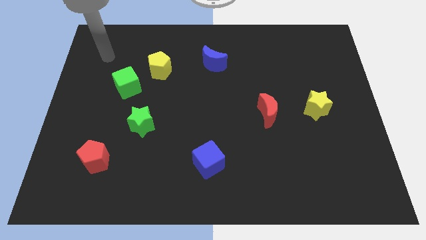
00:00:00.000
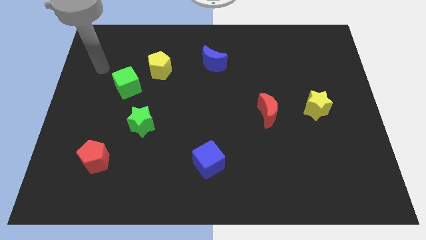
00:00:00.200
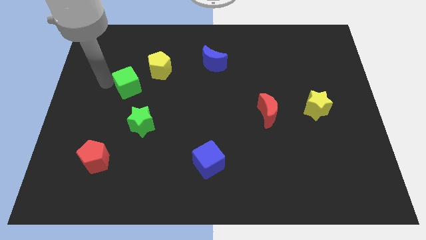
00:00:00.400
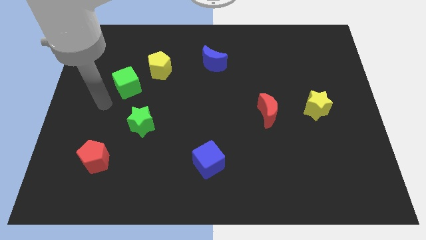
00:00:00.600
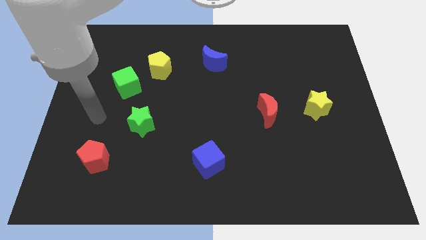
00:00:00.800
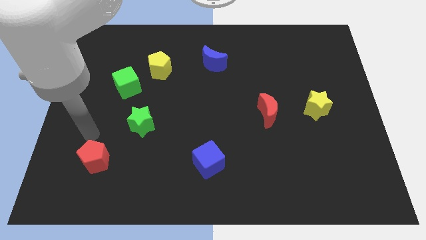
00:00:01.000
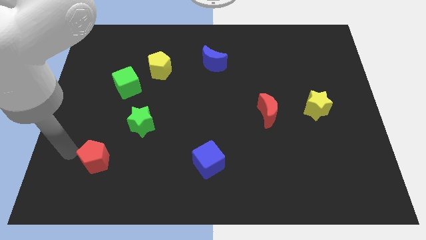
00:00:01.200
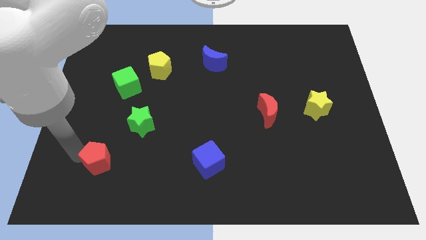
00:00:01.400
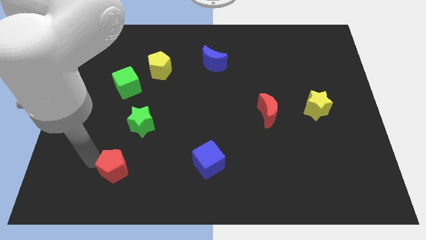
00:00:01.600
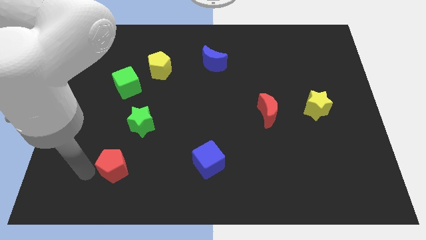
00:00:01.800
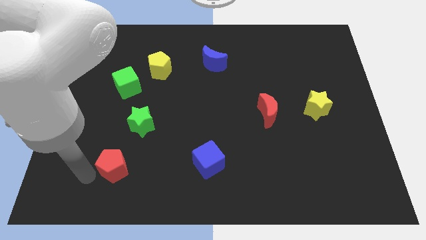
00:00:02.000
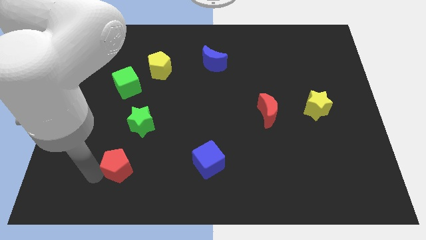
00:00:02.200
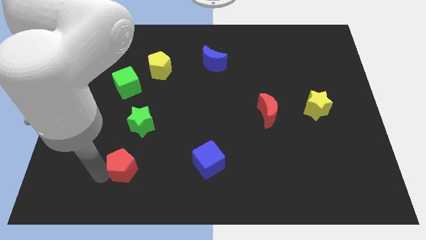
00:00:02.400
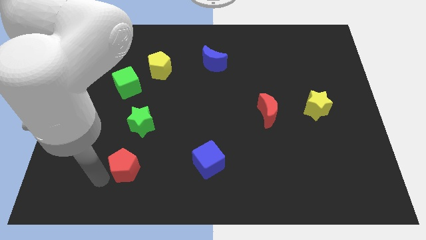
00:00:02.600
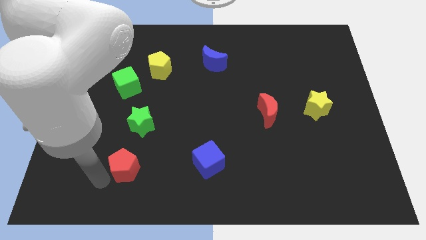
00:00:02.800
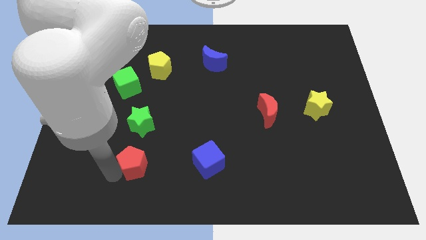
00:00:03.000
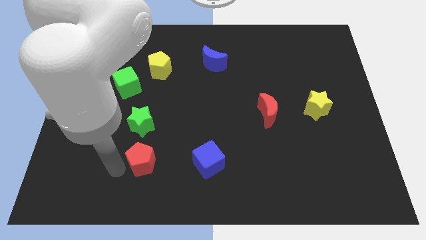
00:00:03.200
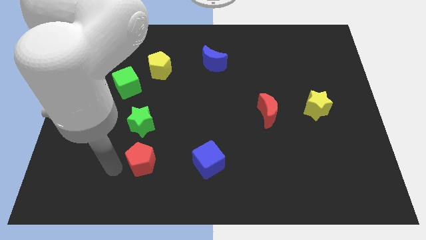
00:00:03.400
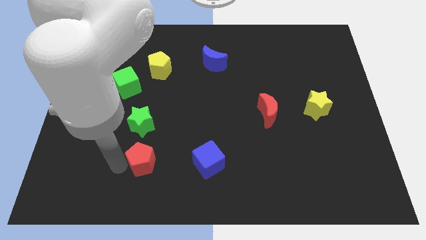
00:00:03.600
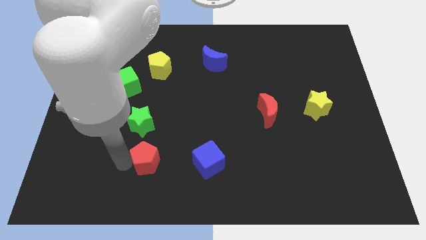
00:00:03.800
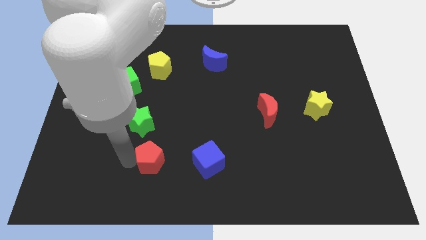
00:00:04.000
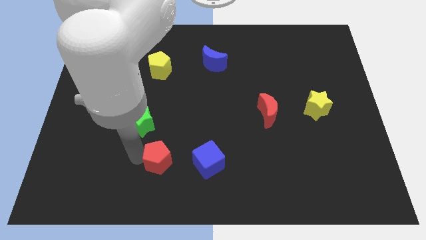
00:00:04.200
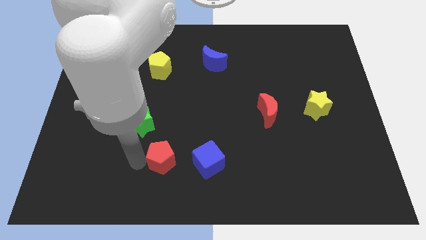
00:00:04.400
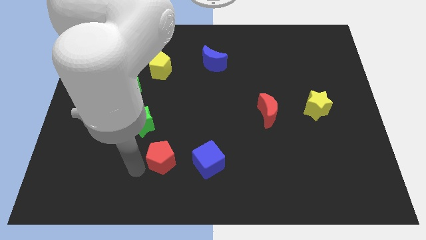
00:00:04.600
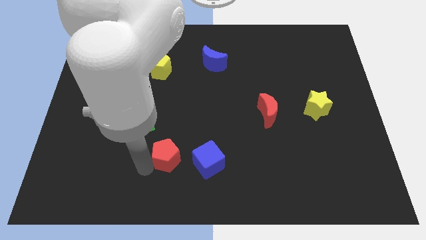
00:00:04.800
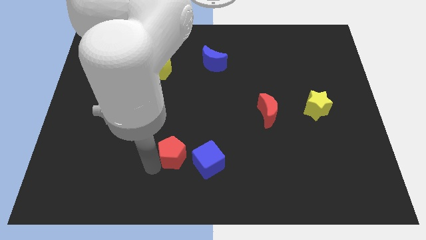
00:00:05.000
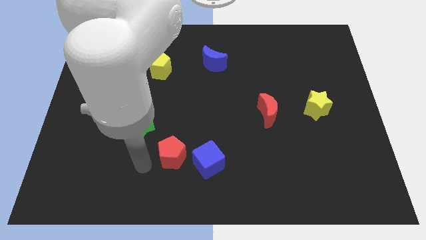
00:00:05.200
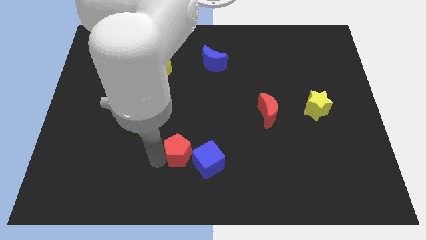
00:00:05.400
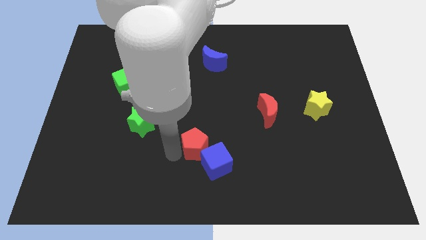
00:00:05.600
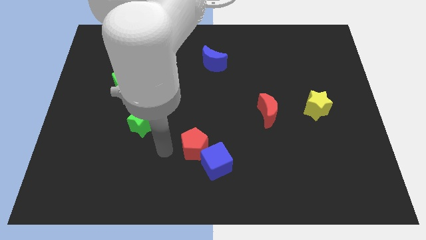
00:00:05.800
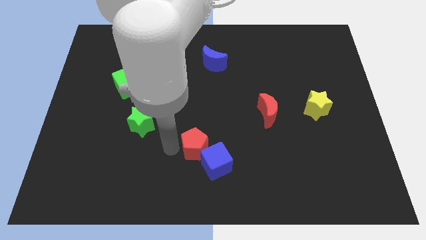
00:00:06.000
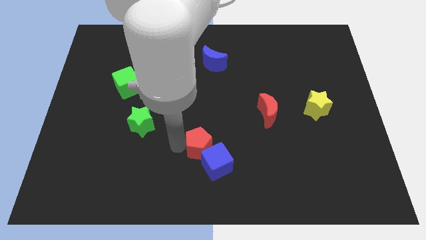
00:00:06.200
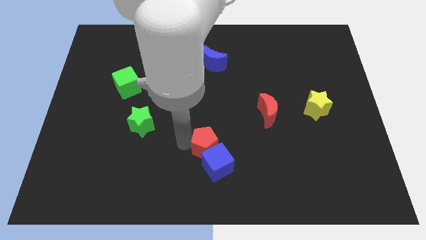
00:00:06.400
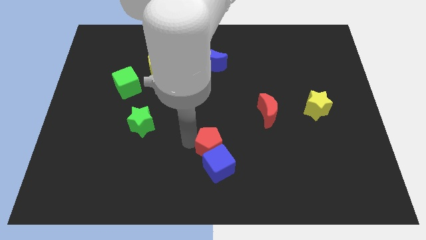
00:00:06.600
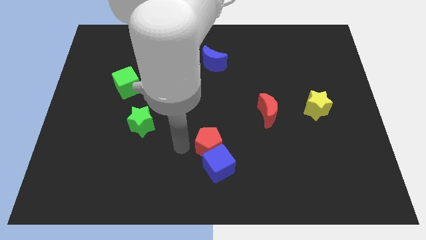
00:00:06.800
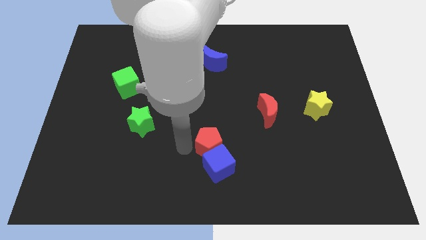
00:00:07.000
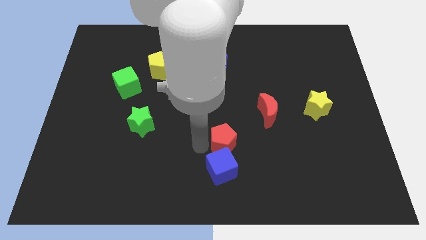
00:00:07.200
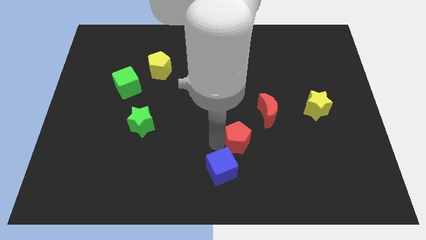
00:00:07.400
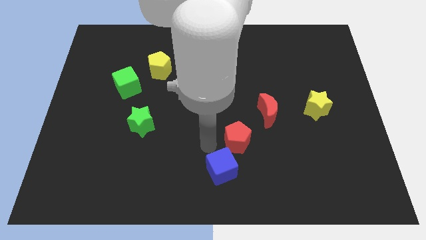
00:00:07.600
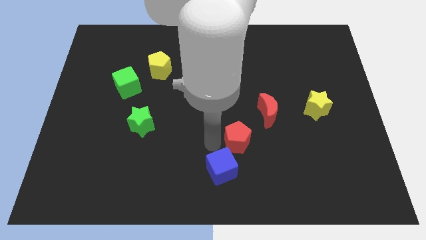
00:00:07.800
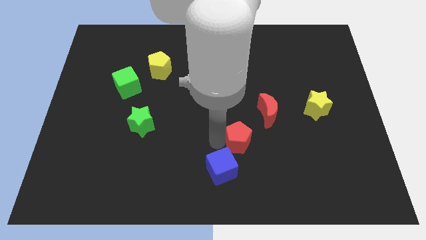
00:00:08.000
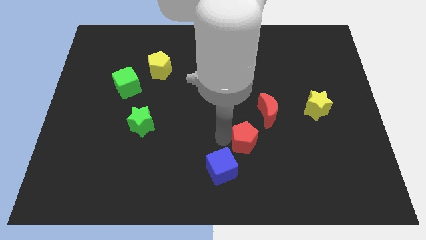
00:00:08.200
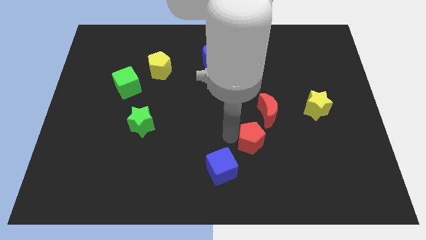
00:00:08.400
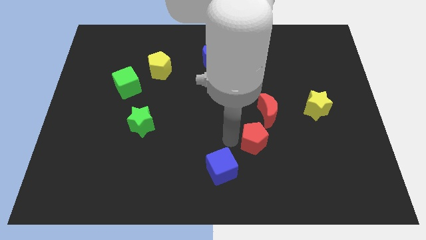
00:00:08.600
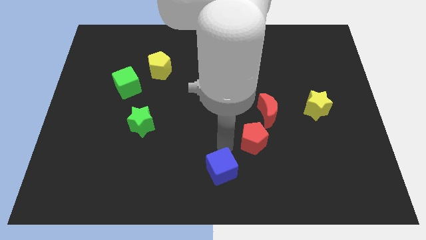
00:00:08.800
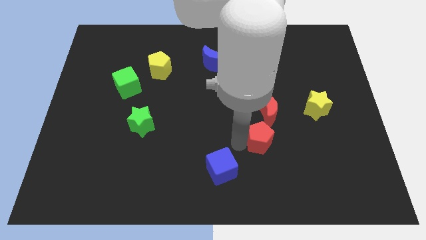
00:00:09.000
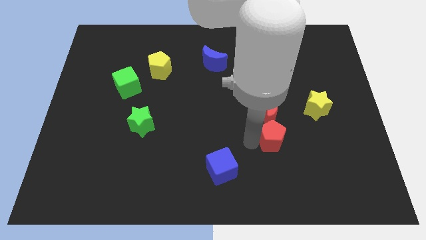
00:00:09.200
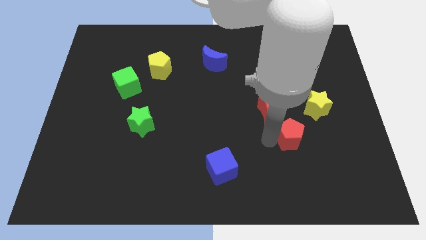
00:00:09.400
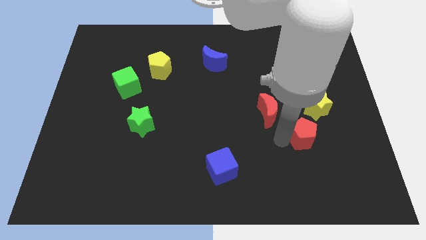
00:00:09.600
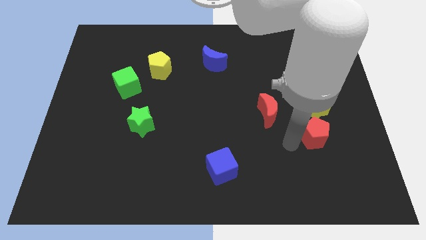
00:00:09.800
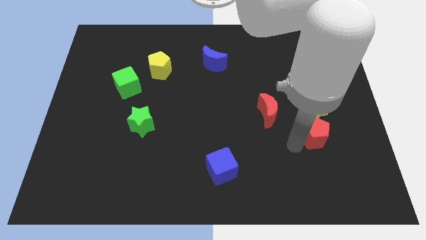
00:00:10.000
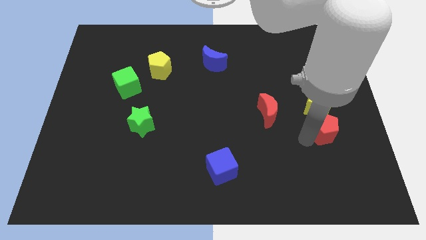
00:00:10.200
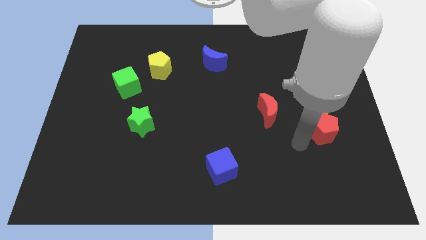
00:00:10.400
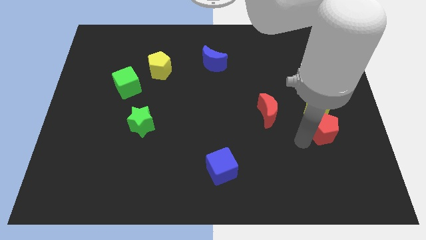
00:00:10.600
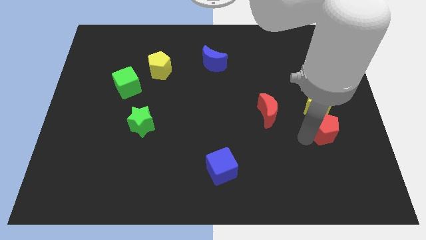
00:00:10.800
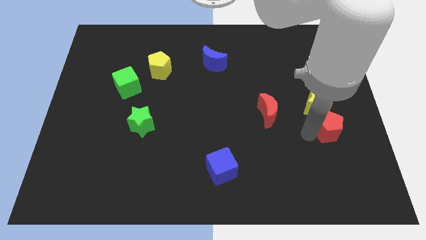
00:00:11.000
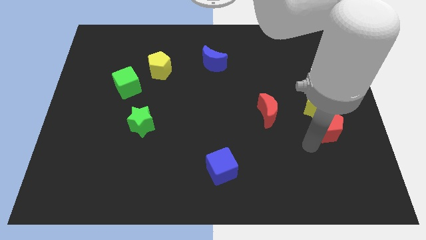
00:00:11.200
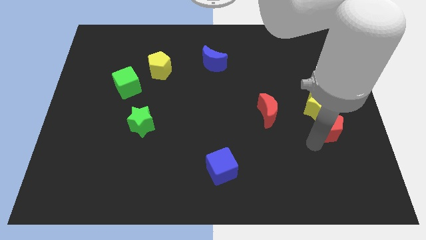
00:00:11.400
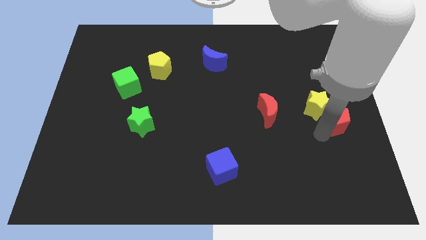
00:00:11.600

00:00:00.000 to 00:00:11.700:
slide the red pentagon to the right side

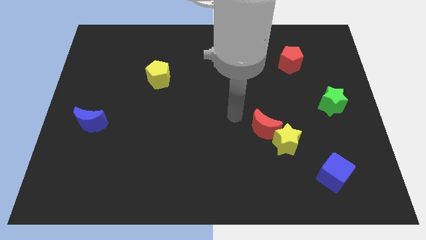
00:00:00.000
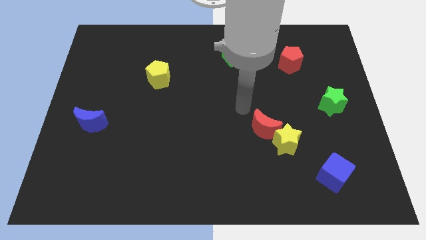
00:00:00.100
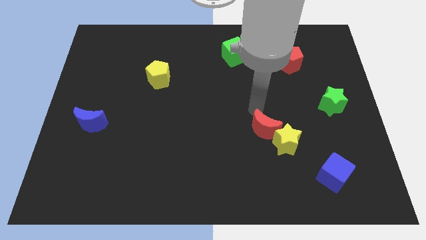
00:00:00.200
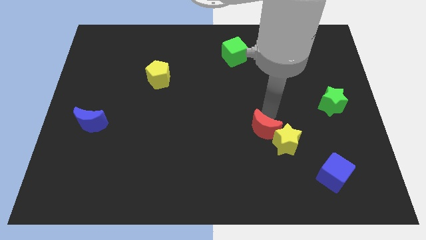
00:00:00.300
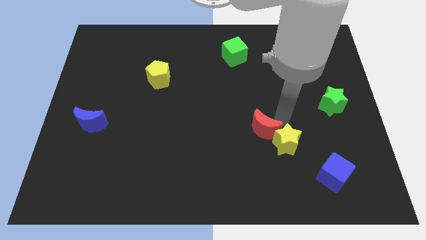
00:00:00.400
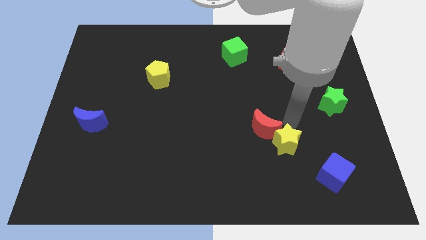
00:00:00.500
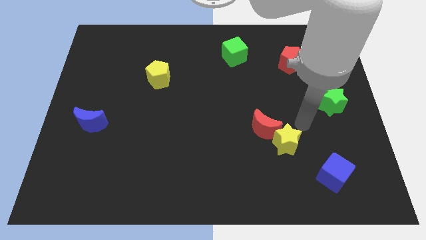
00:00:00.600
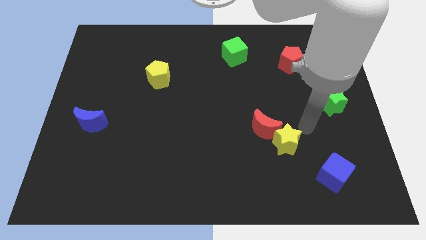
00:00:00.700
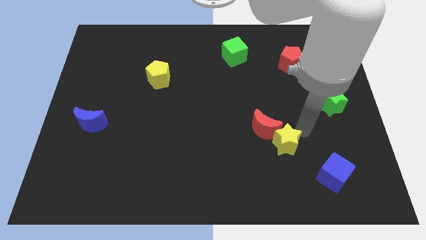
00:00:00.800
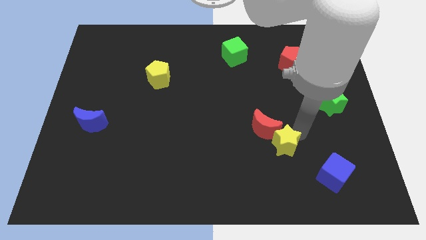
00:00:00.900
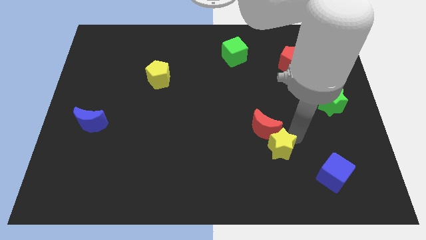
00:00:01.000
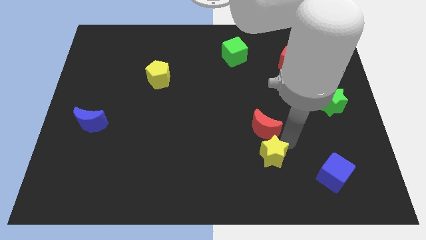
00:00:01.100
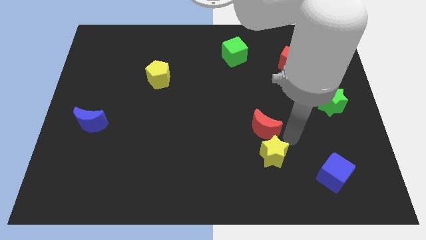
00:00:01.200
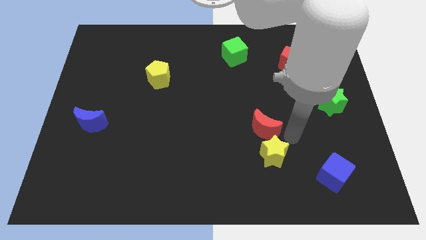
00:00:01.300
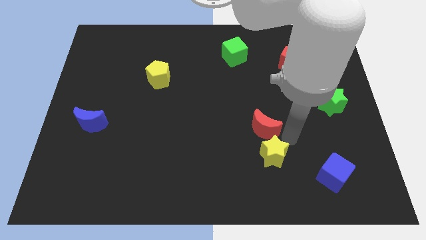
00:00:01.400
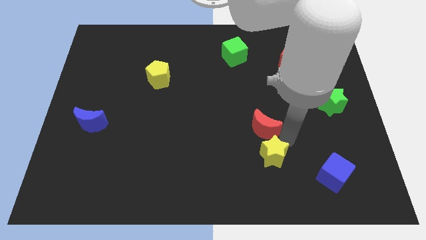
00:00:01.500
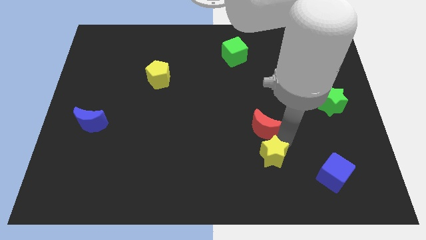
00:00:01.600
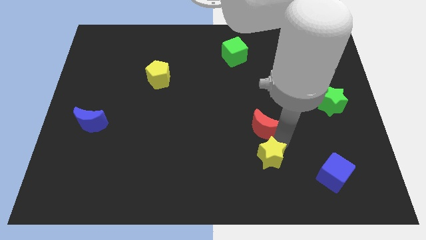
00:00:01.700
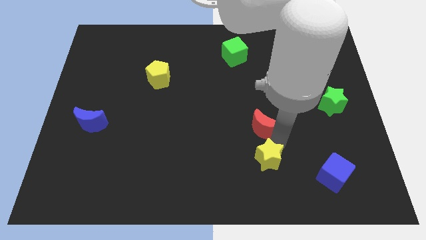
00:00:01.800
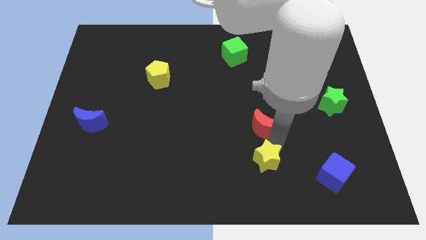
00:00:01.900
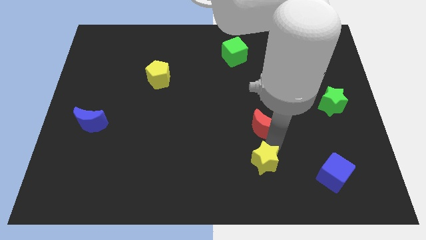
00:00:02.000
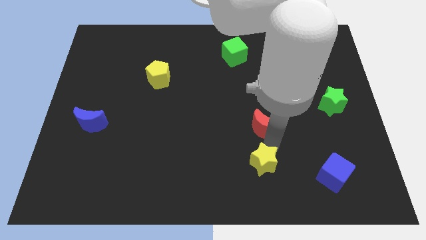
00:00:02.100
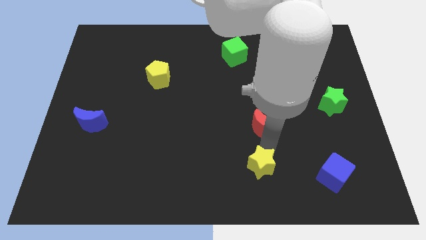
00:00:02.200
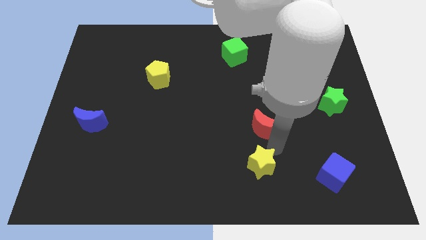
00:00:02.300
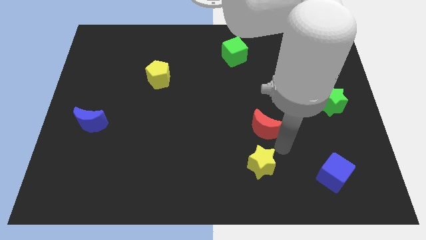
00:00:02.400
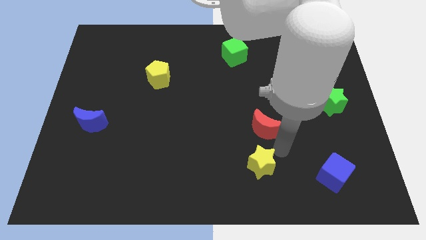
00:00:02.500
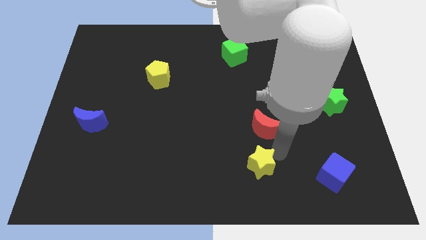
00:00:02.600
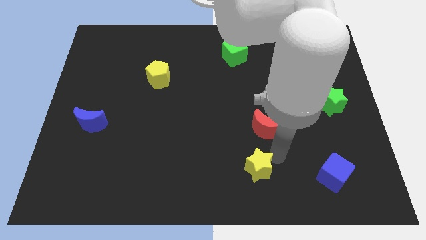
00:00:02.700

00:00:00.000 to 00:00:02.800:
slide the yellow star to the bottom side
